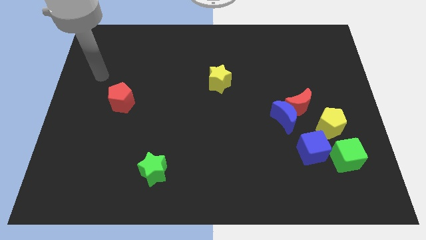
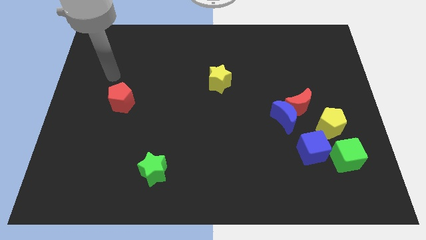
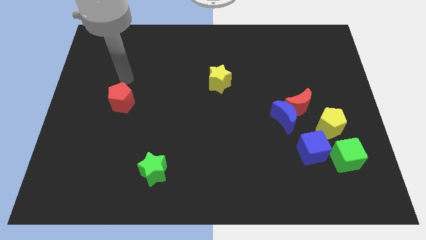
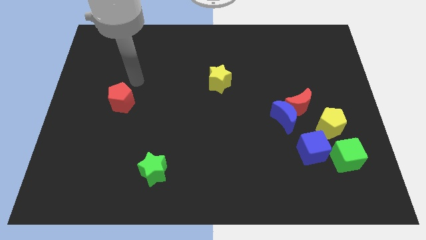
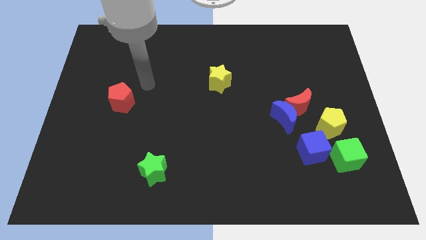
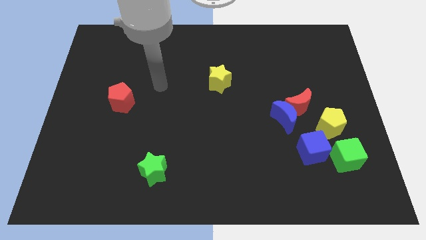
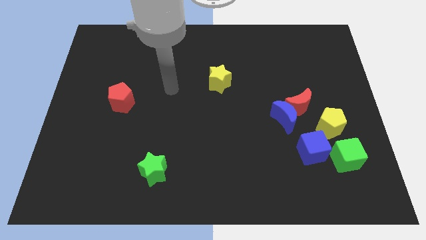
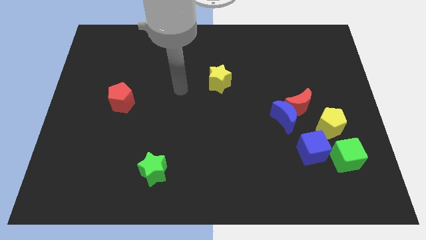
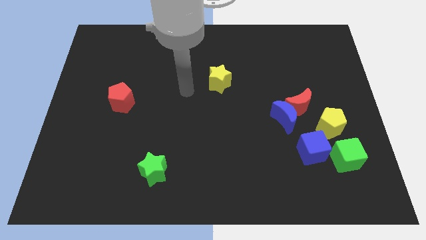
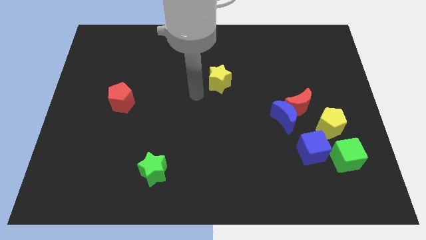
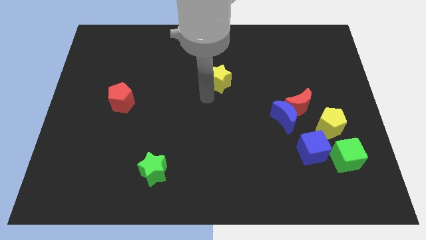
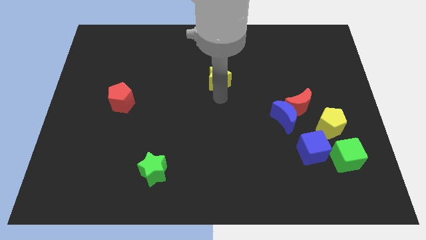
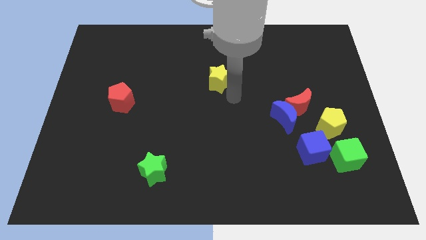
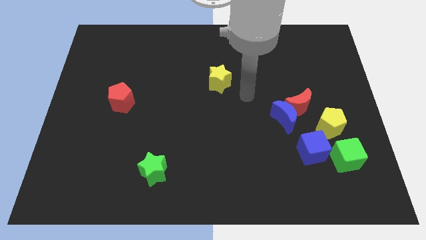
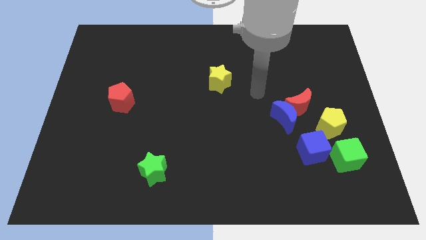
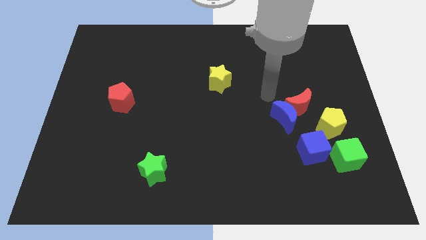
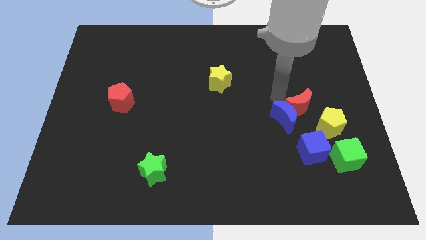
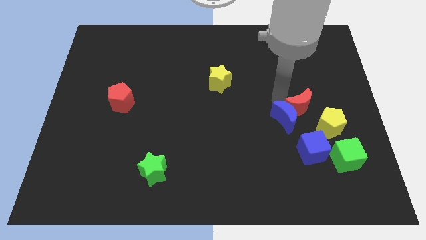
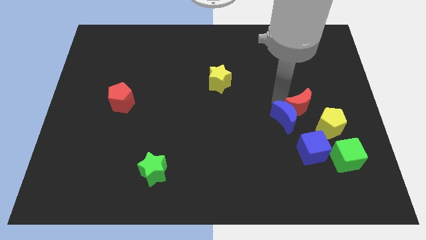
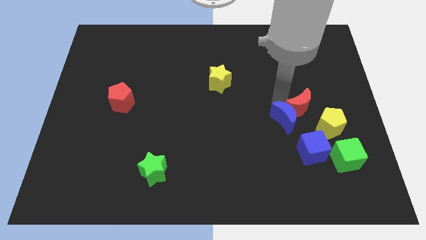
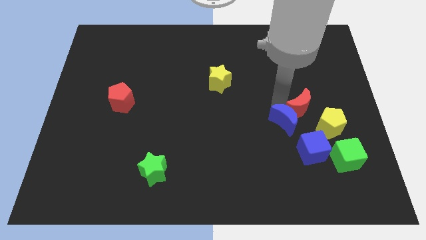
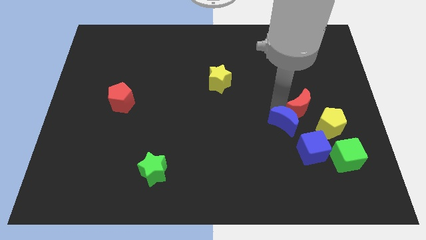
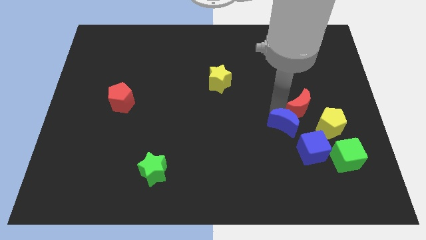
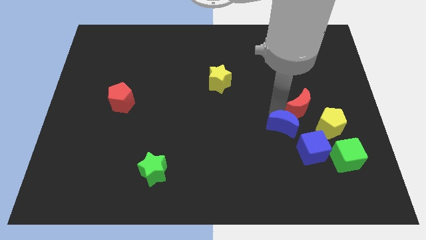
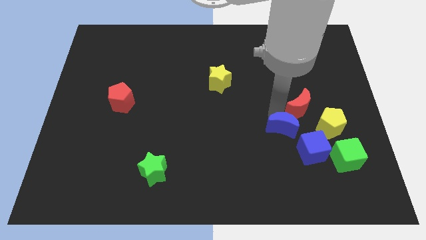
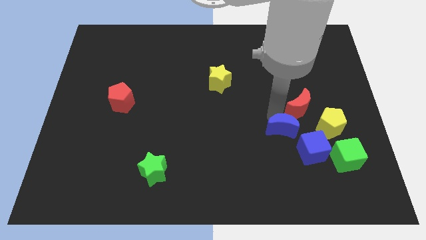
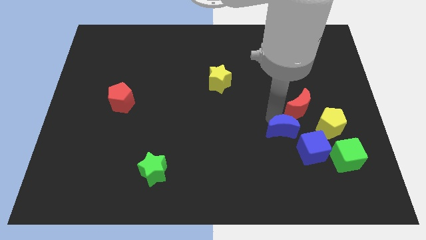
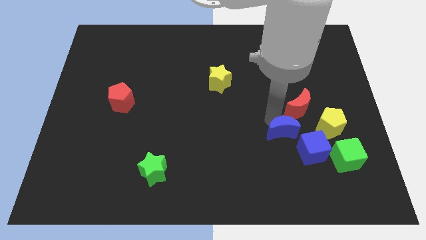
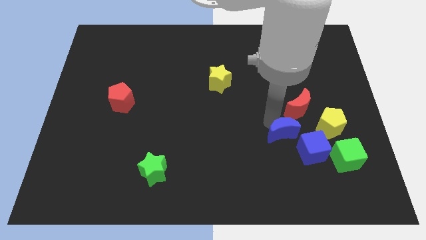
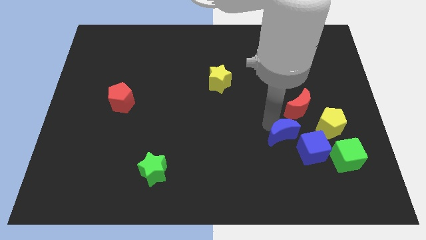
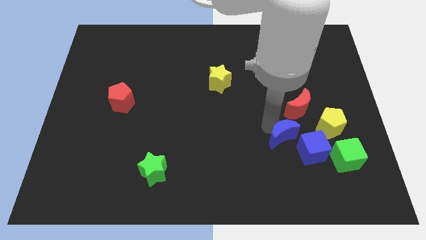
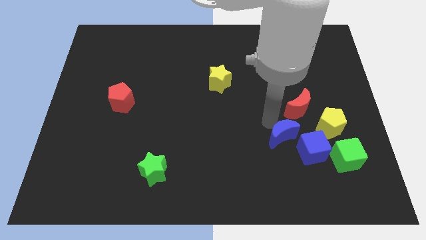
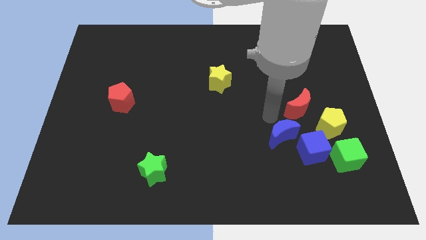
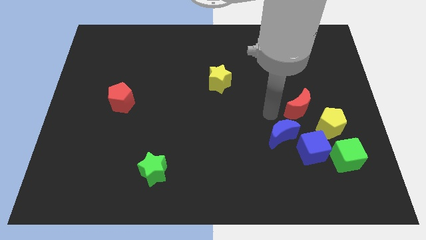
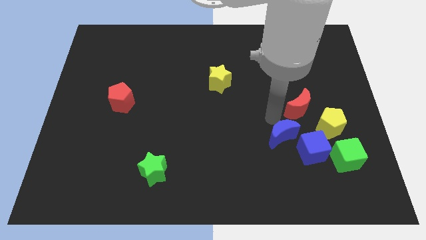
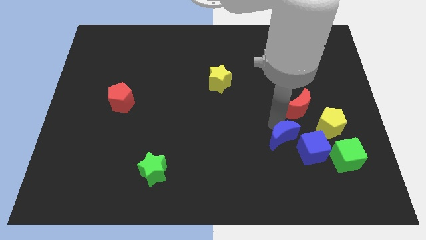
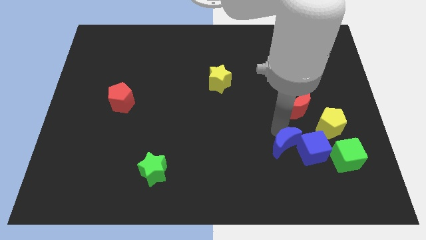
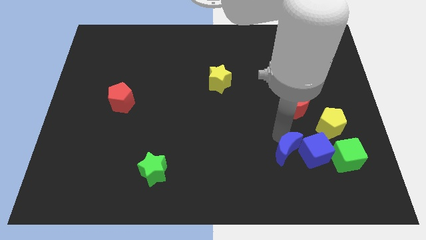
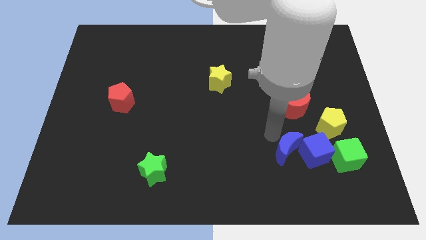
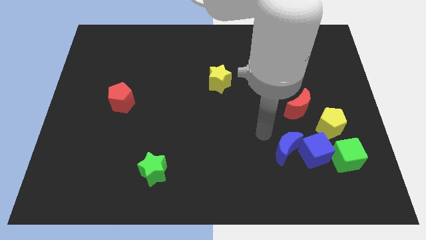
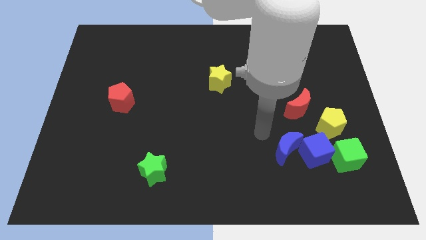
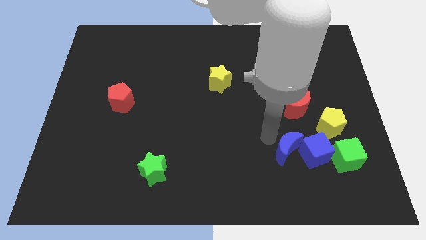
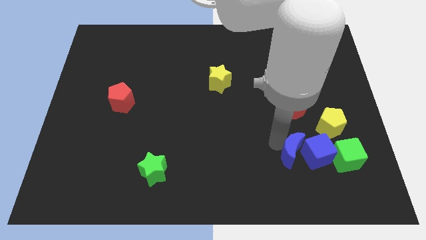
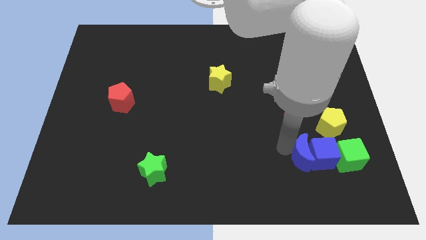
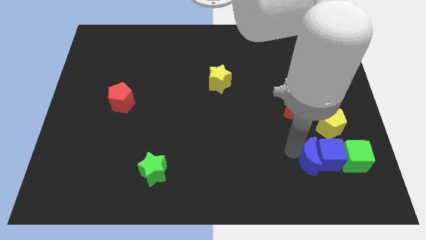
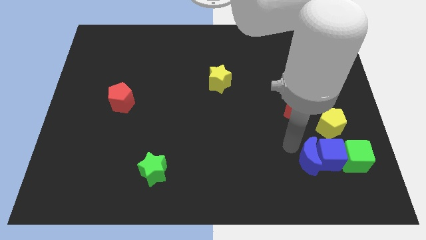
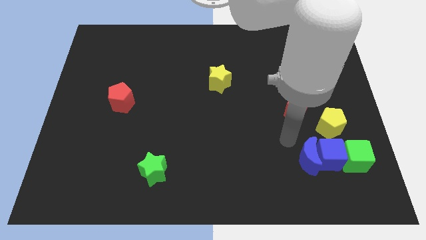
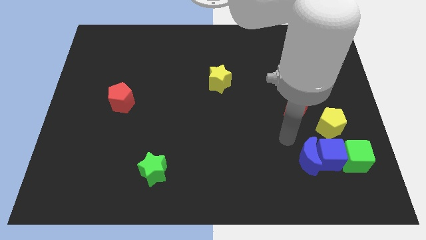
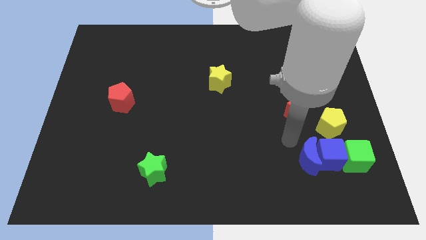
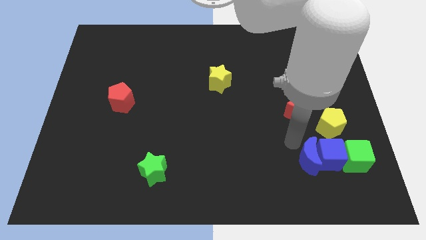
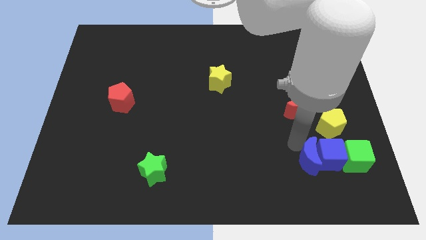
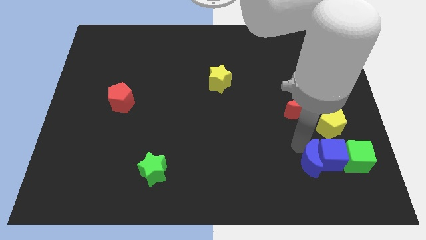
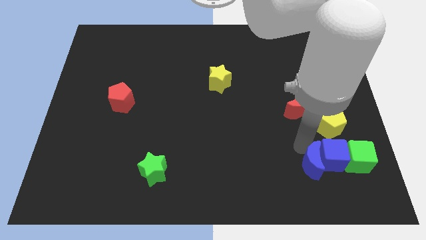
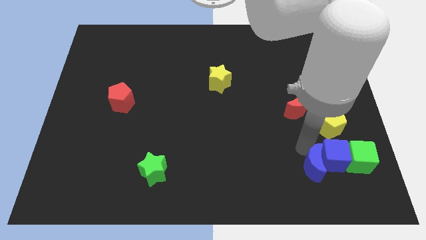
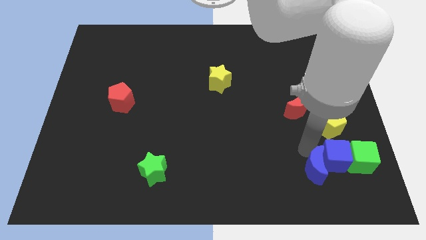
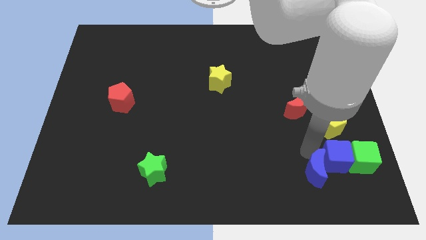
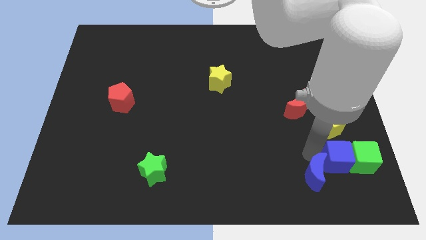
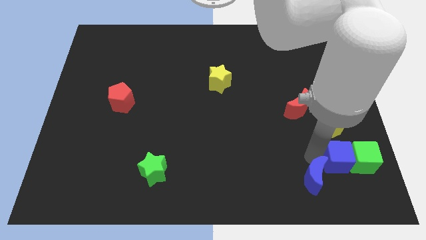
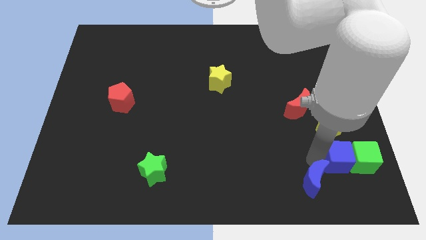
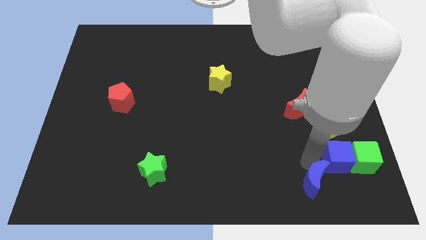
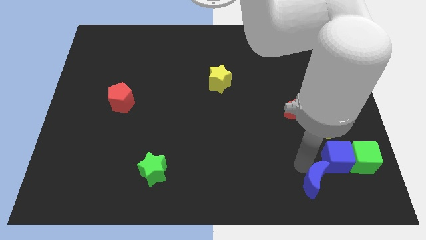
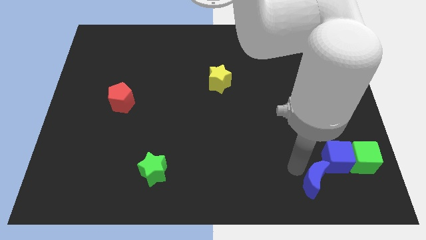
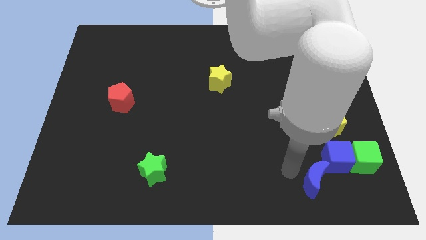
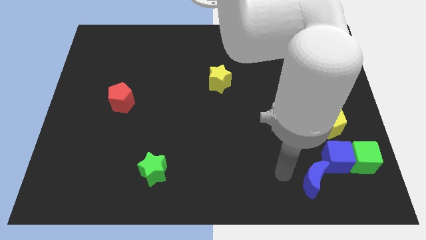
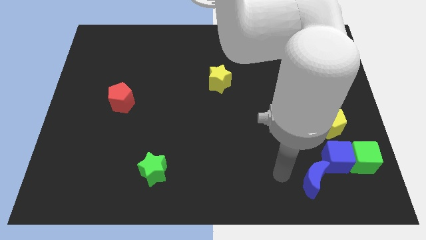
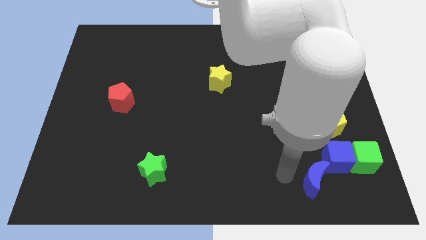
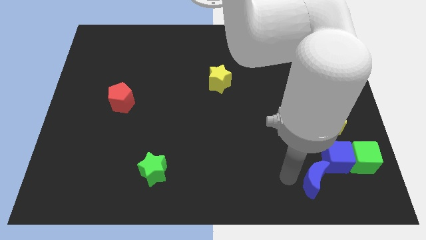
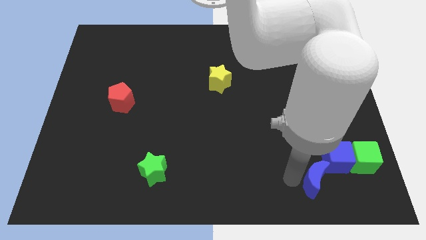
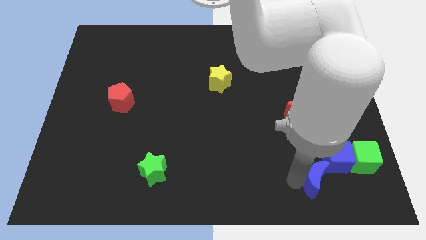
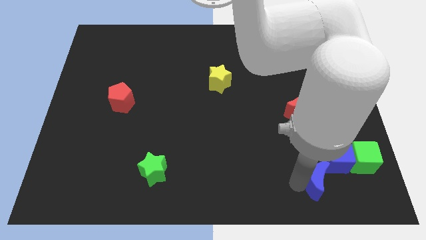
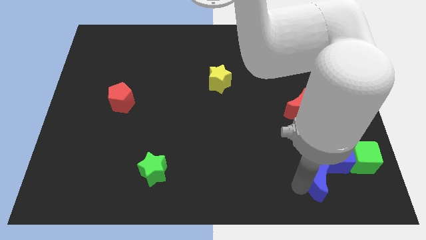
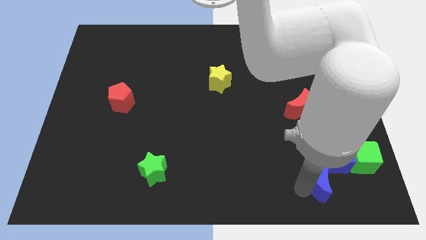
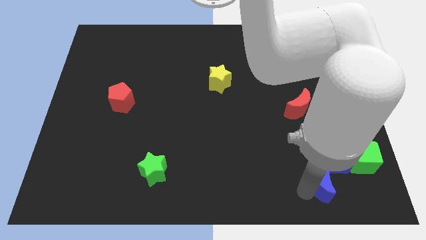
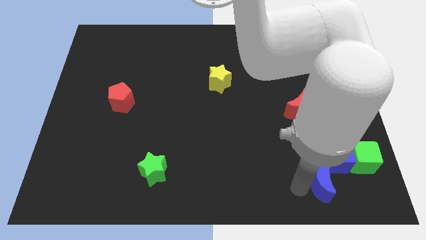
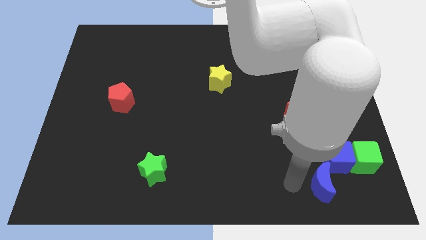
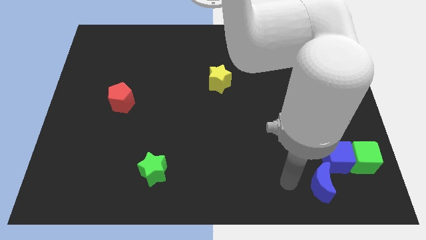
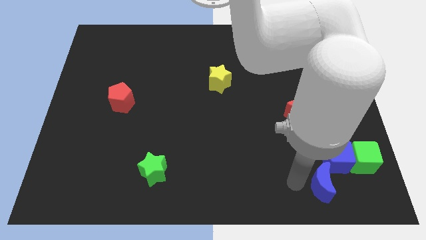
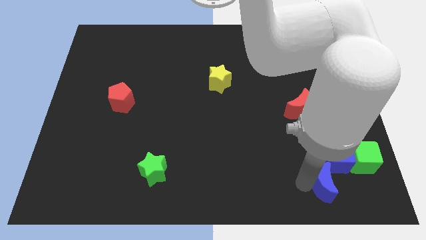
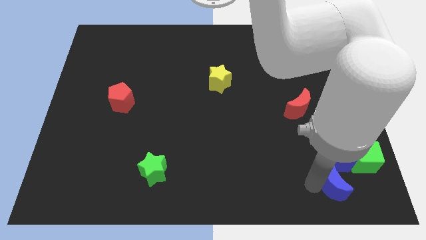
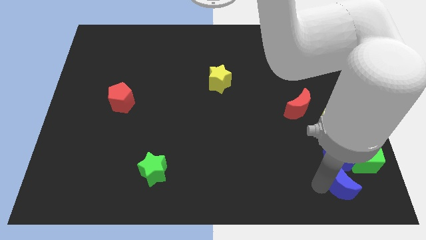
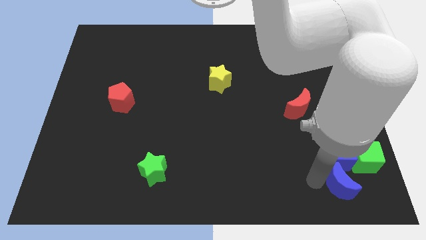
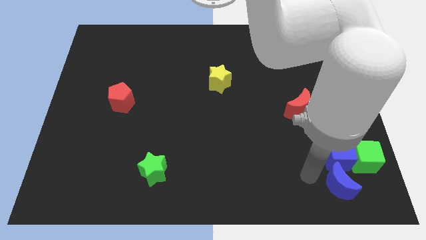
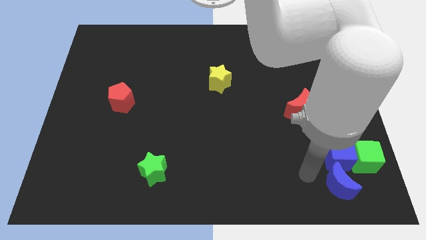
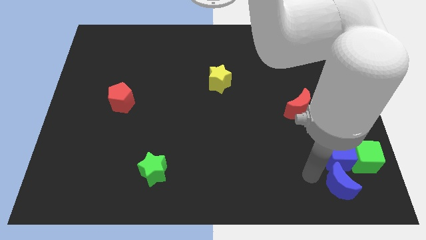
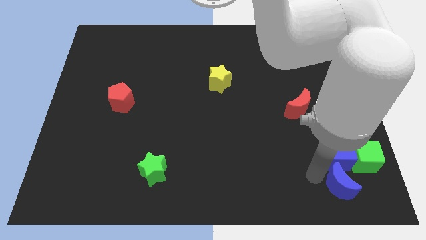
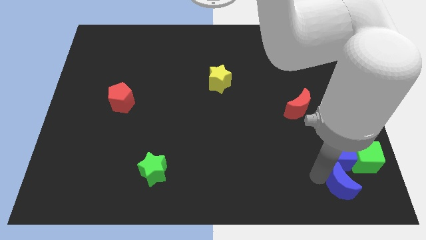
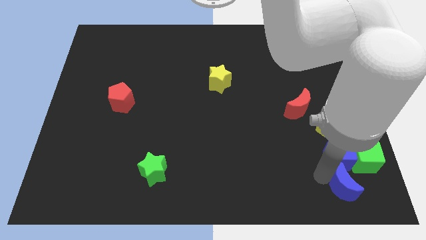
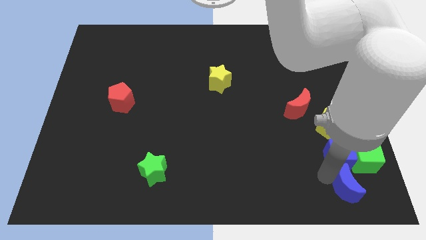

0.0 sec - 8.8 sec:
move the blue moon to the bottom right
